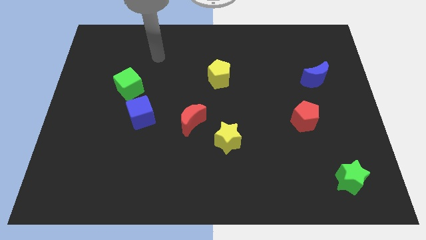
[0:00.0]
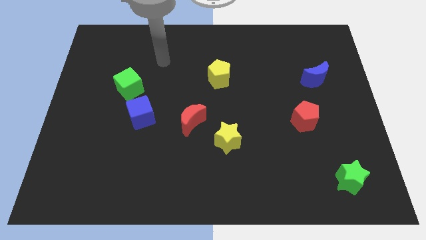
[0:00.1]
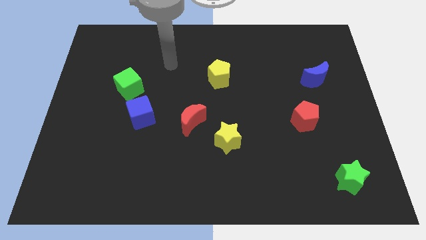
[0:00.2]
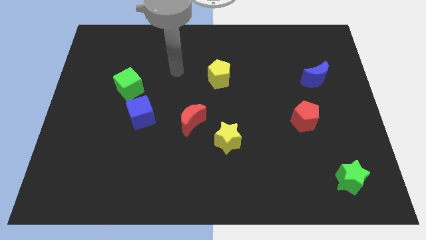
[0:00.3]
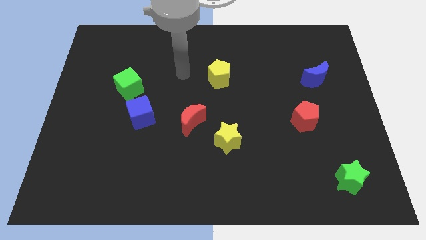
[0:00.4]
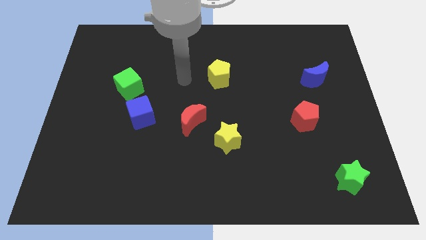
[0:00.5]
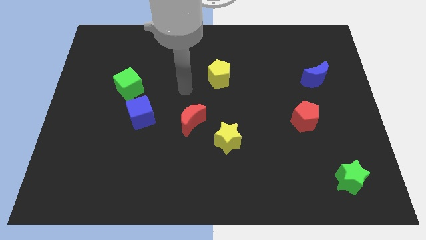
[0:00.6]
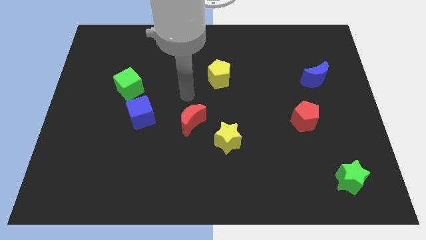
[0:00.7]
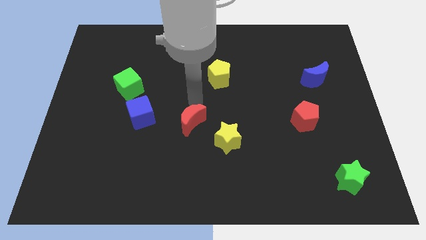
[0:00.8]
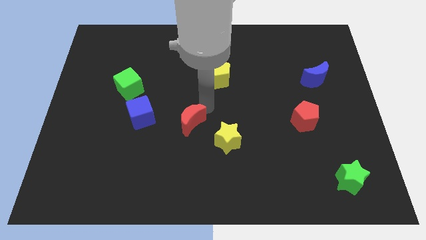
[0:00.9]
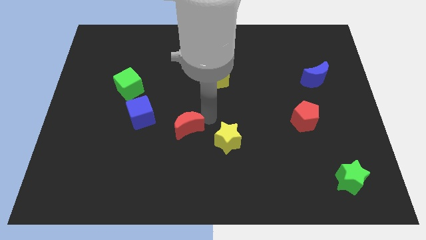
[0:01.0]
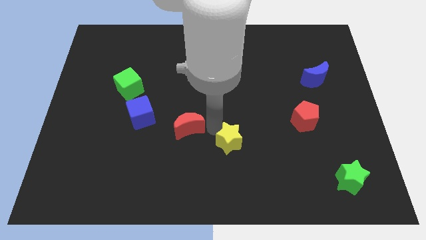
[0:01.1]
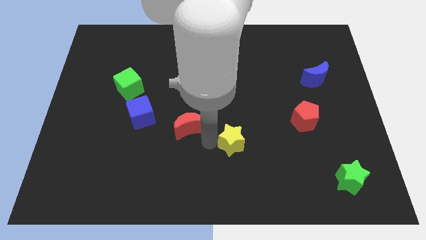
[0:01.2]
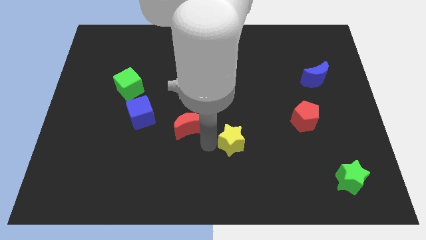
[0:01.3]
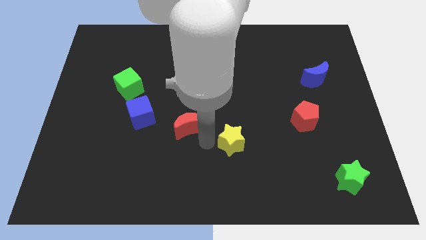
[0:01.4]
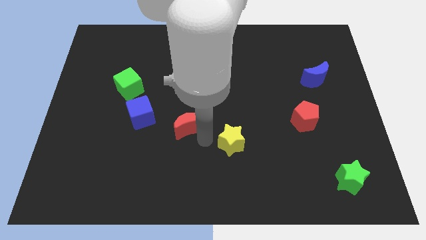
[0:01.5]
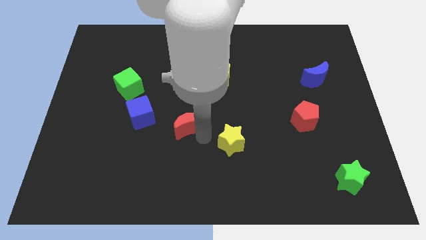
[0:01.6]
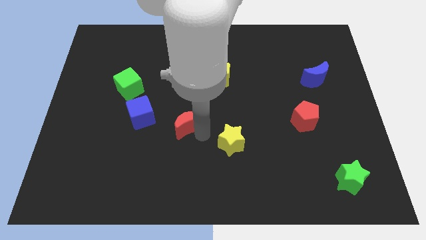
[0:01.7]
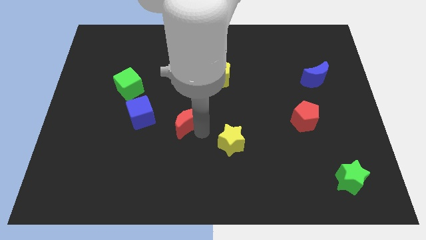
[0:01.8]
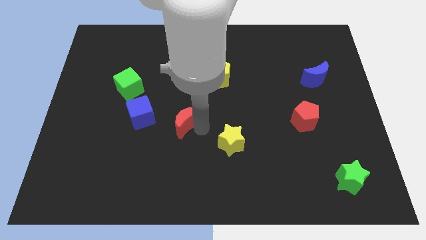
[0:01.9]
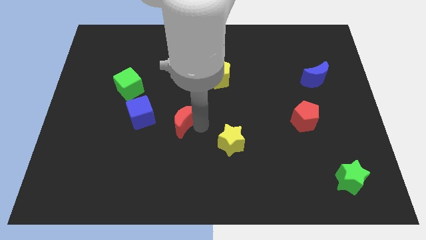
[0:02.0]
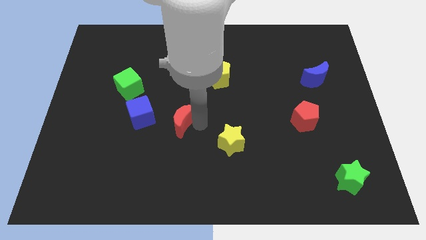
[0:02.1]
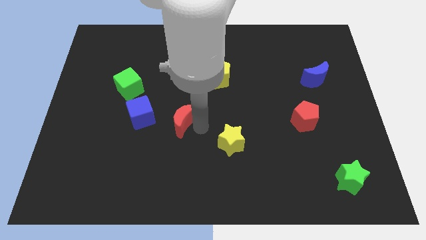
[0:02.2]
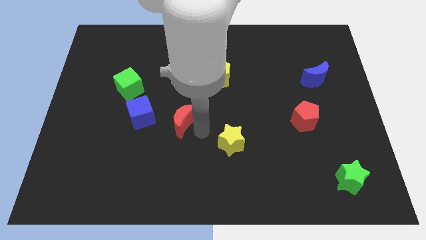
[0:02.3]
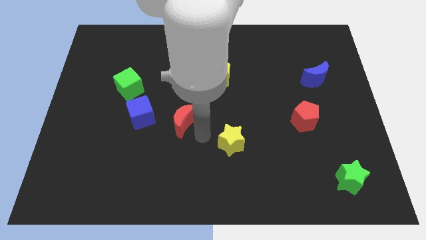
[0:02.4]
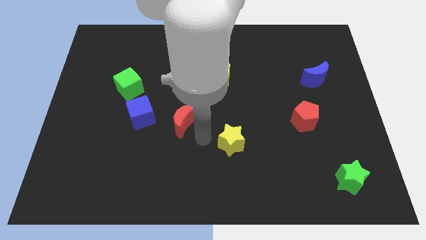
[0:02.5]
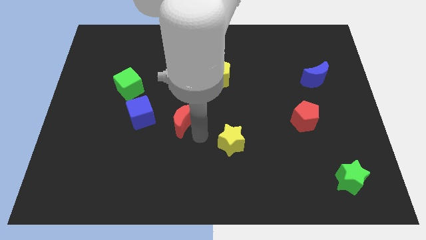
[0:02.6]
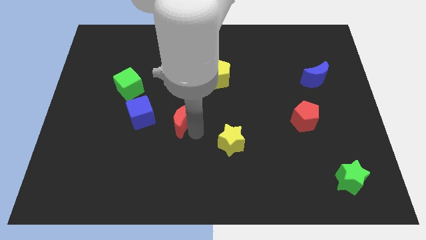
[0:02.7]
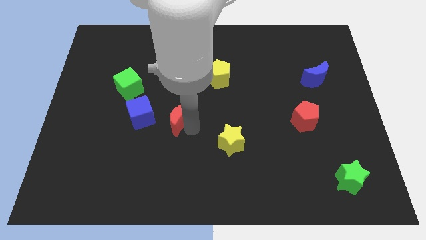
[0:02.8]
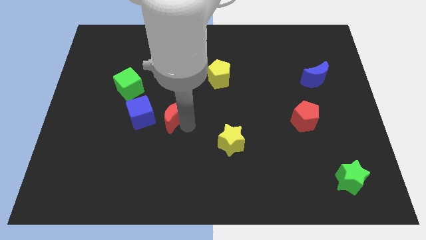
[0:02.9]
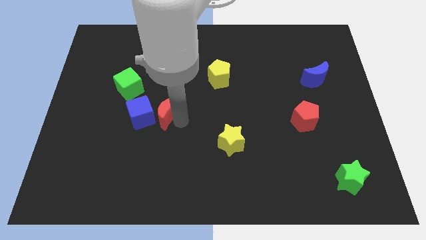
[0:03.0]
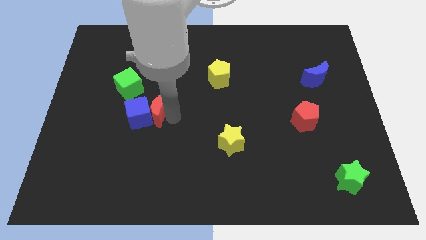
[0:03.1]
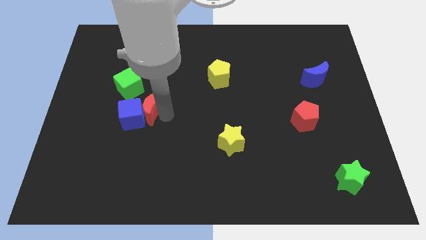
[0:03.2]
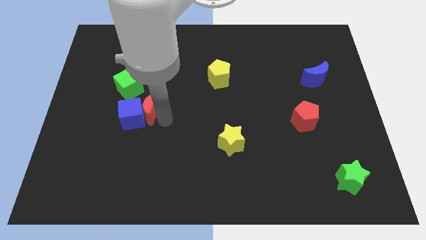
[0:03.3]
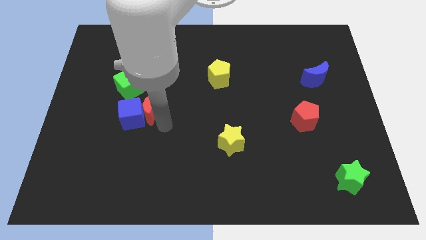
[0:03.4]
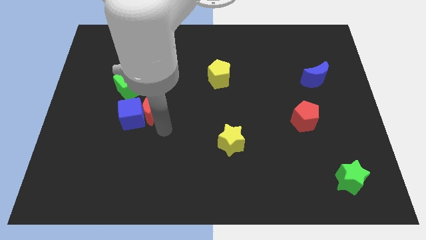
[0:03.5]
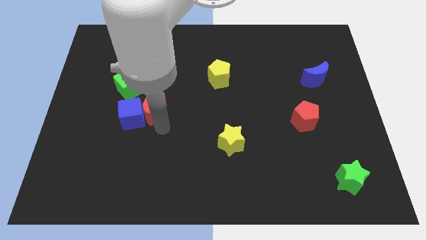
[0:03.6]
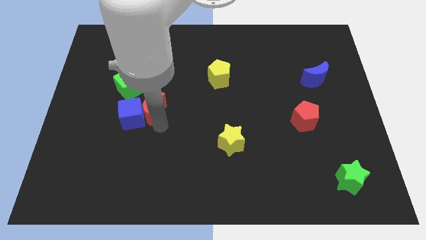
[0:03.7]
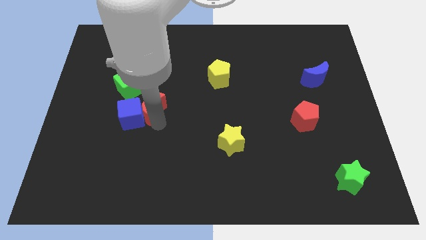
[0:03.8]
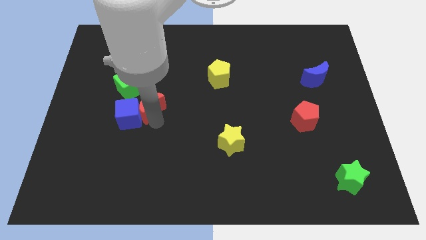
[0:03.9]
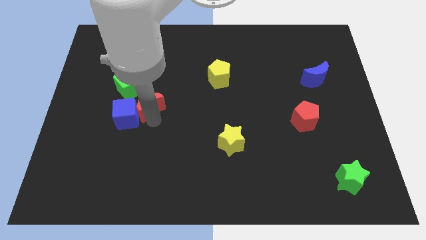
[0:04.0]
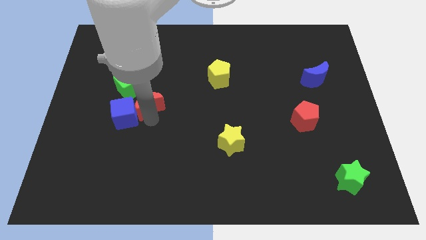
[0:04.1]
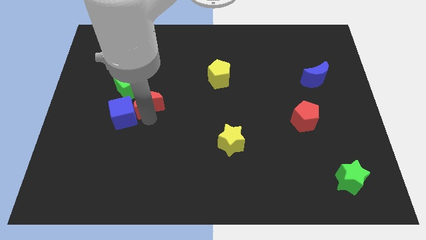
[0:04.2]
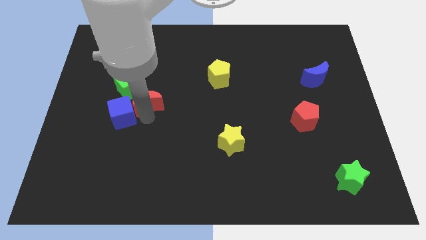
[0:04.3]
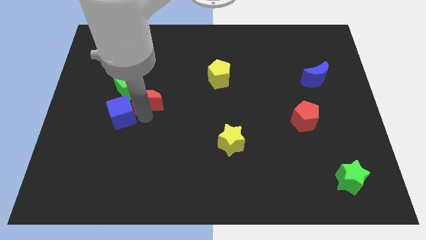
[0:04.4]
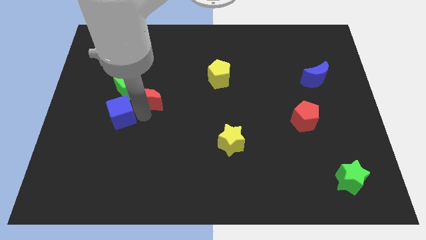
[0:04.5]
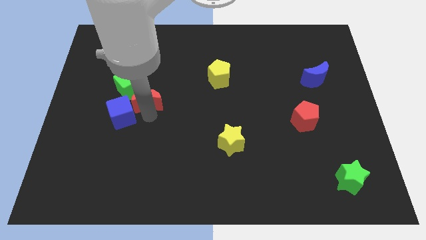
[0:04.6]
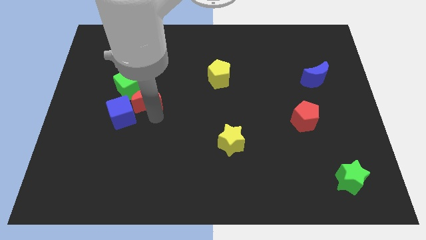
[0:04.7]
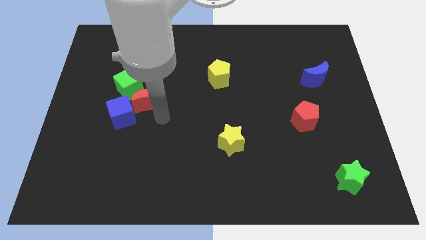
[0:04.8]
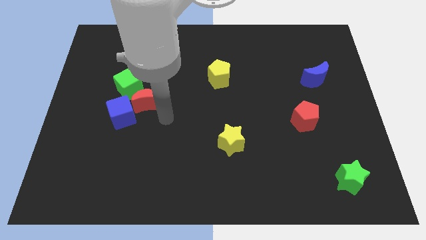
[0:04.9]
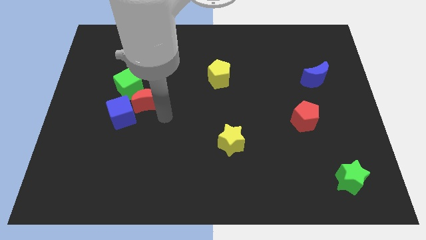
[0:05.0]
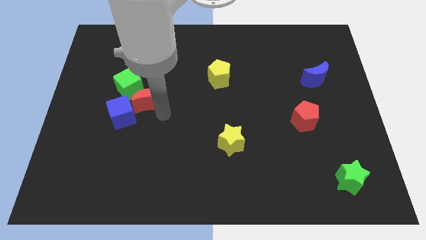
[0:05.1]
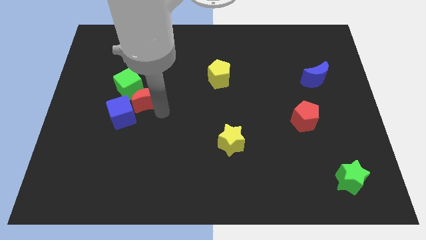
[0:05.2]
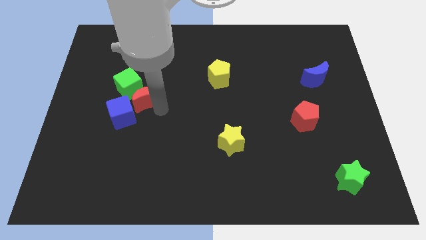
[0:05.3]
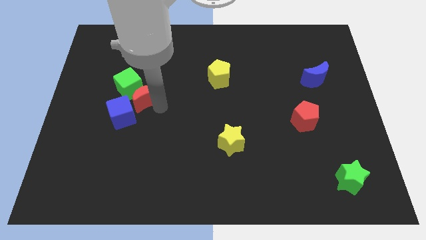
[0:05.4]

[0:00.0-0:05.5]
move the red moon towards the green cube

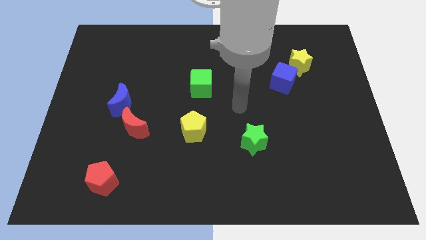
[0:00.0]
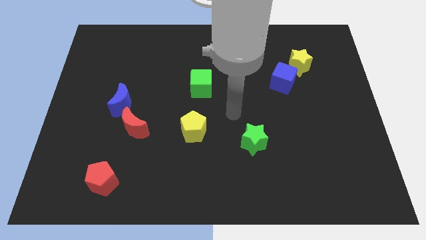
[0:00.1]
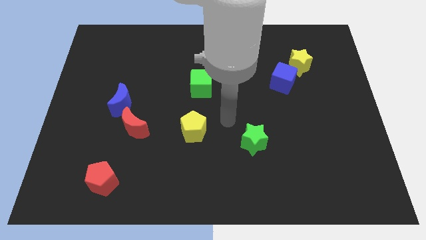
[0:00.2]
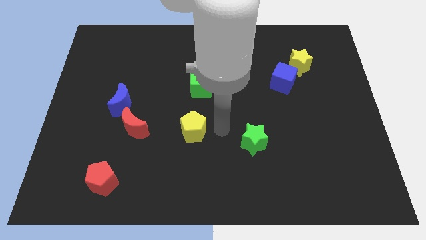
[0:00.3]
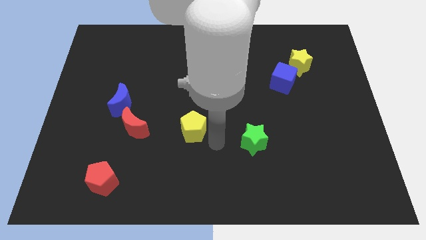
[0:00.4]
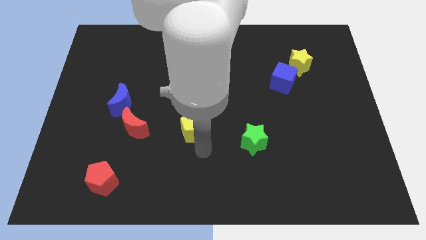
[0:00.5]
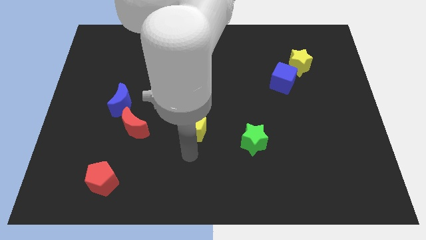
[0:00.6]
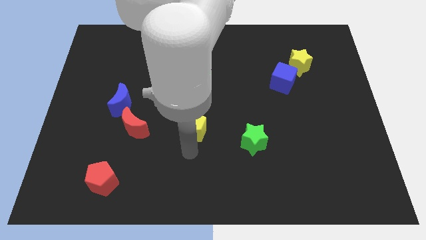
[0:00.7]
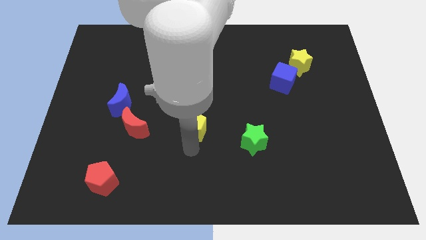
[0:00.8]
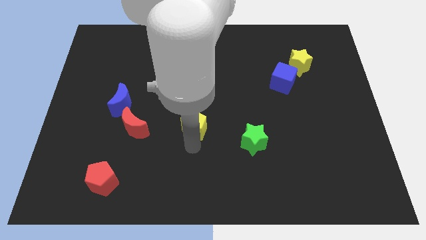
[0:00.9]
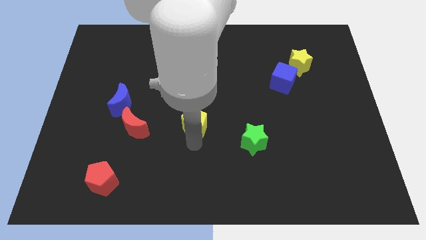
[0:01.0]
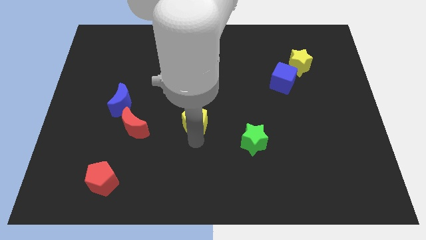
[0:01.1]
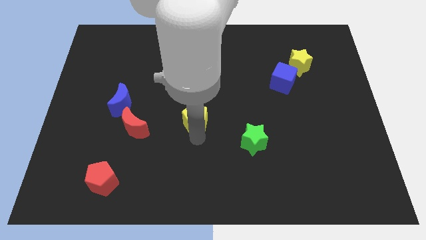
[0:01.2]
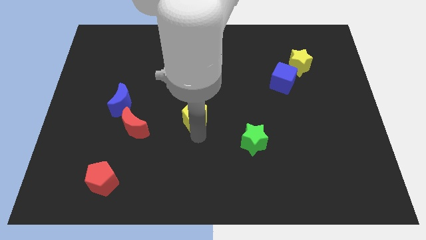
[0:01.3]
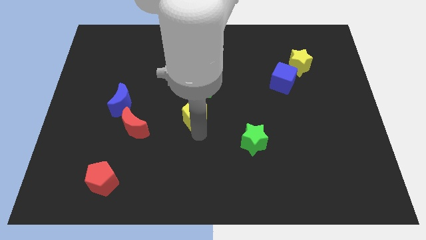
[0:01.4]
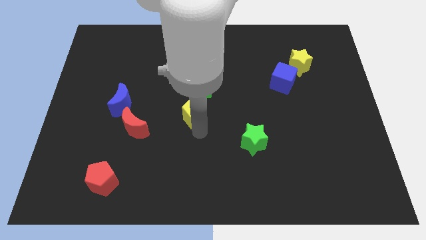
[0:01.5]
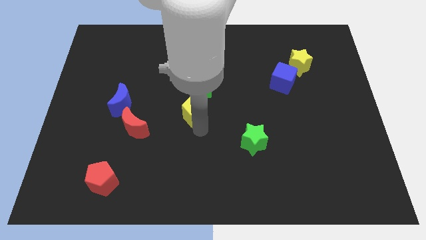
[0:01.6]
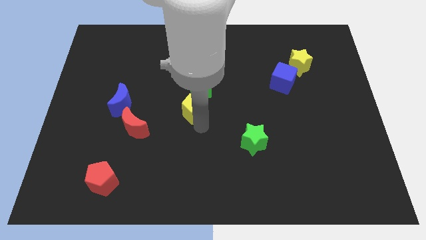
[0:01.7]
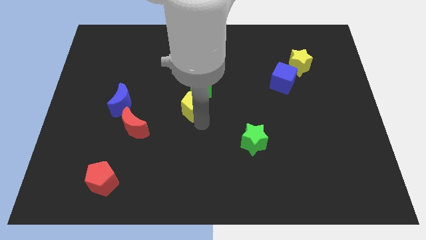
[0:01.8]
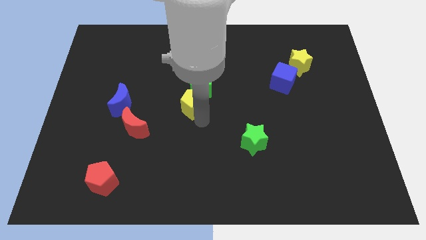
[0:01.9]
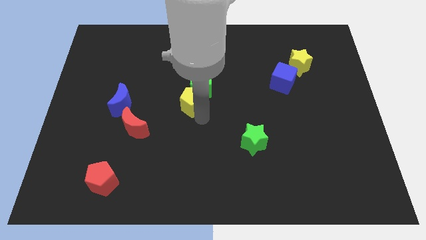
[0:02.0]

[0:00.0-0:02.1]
push the yellow pentagon to the green cube
